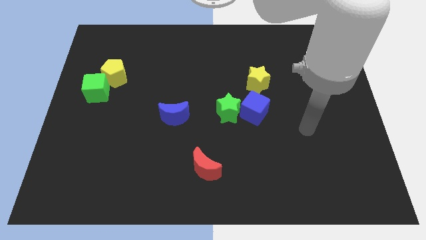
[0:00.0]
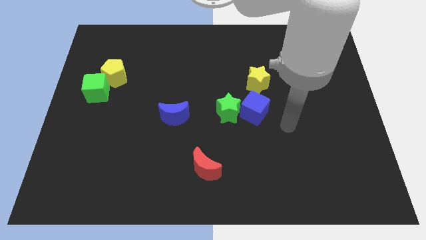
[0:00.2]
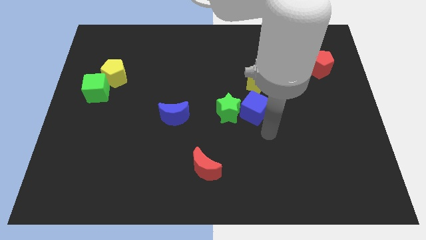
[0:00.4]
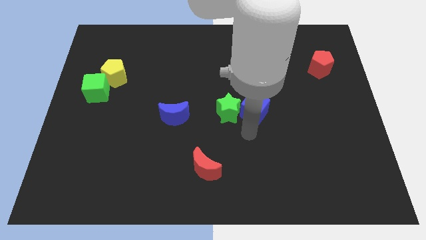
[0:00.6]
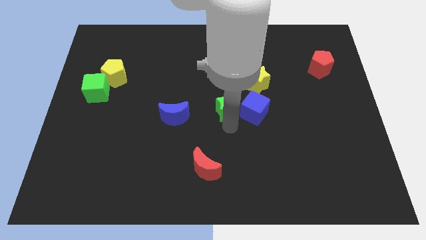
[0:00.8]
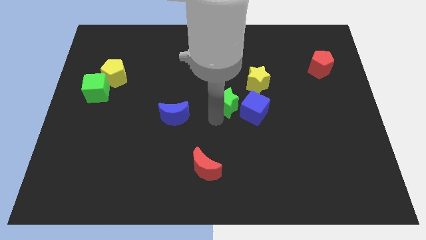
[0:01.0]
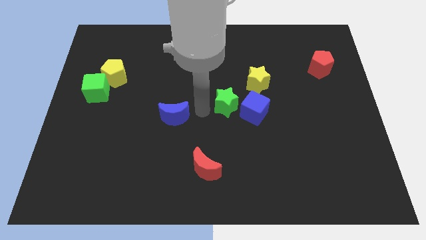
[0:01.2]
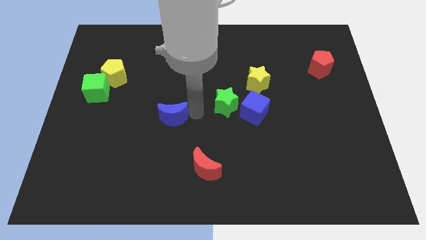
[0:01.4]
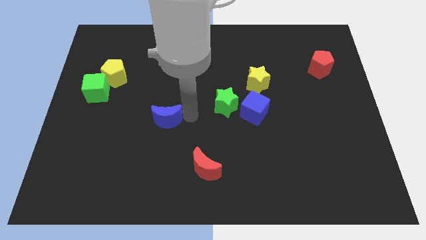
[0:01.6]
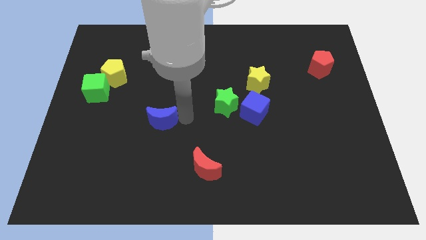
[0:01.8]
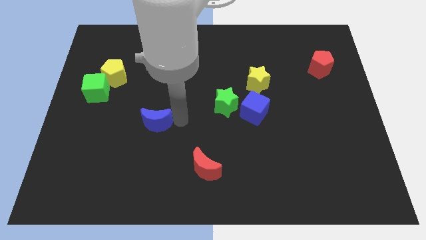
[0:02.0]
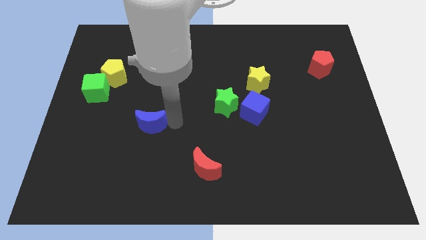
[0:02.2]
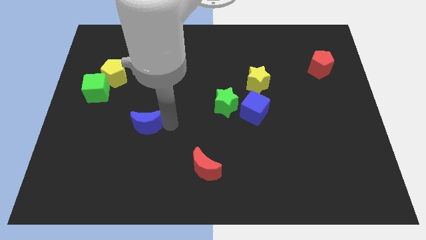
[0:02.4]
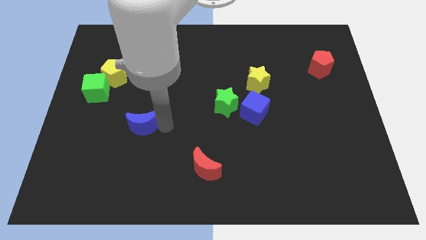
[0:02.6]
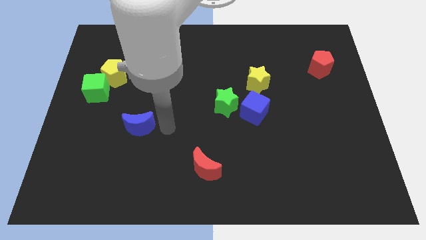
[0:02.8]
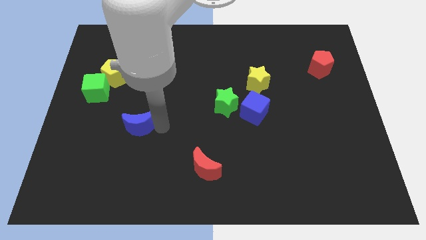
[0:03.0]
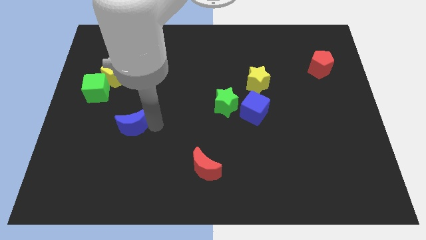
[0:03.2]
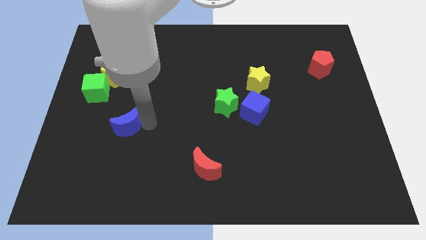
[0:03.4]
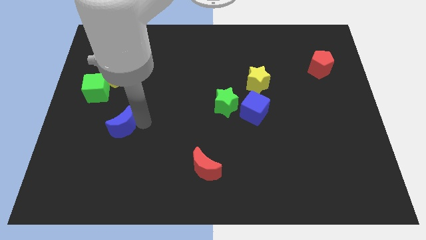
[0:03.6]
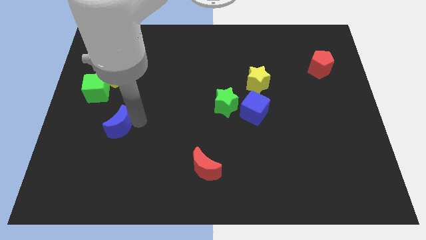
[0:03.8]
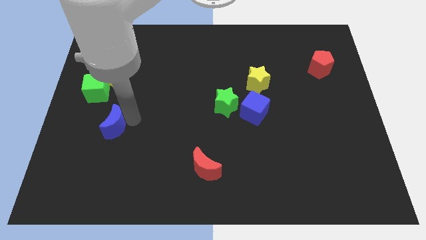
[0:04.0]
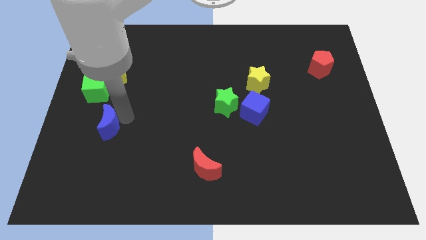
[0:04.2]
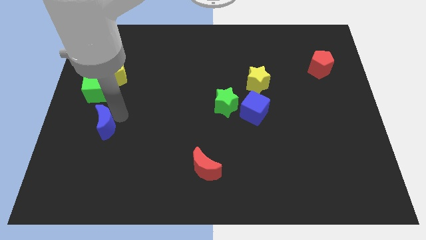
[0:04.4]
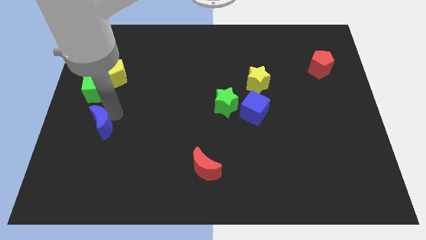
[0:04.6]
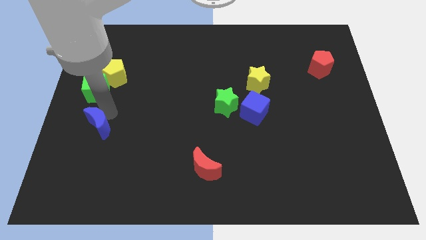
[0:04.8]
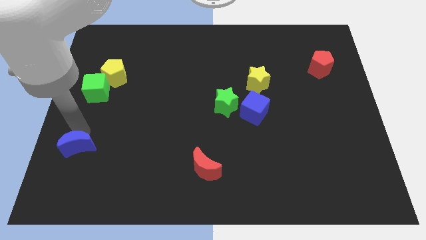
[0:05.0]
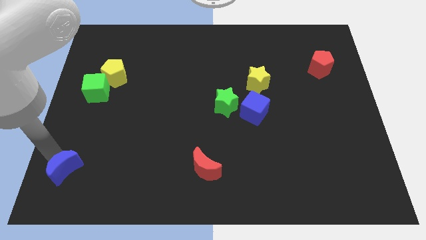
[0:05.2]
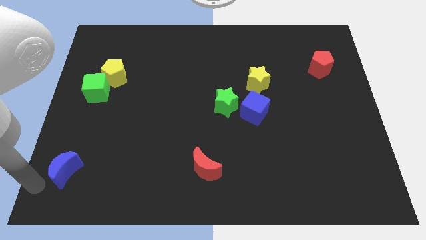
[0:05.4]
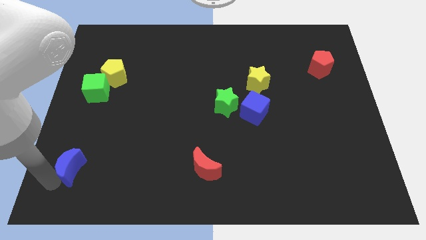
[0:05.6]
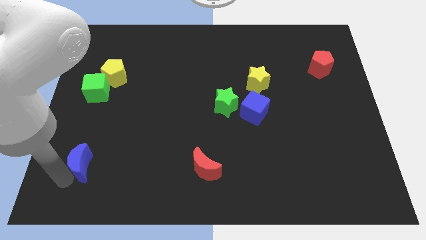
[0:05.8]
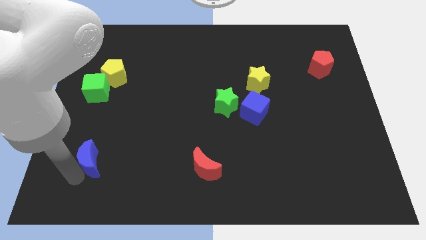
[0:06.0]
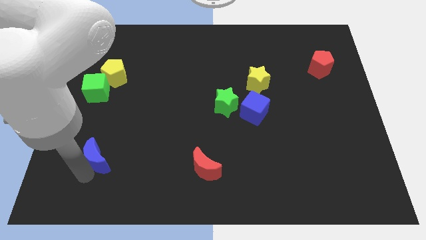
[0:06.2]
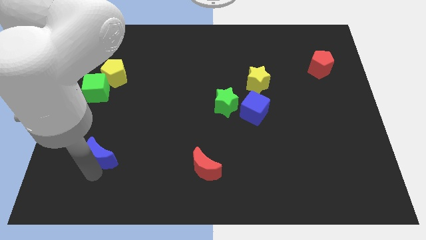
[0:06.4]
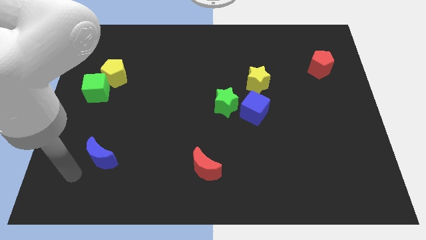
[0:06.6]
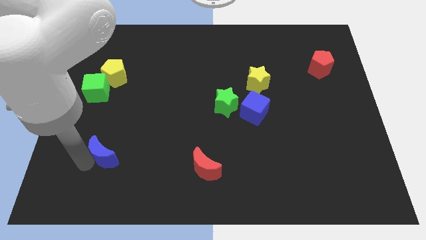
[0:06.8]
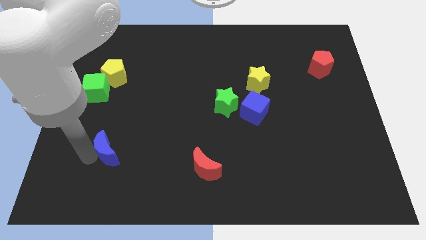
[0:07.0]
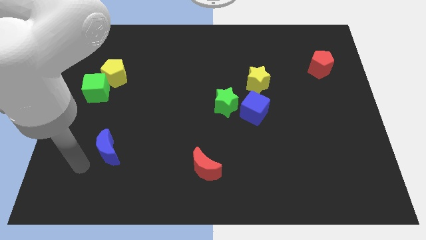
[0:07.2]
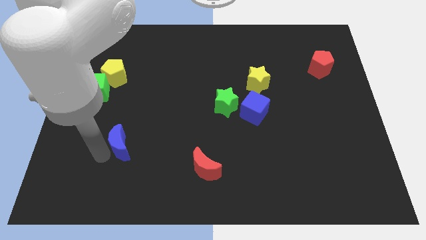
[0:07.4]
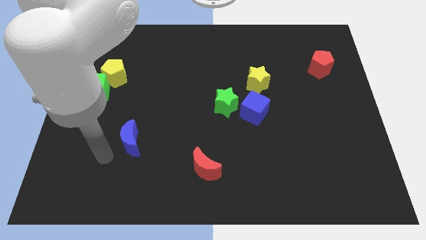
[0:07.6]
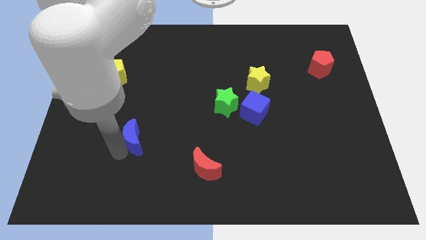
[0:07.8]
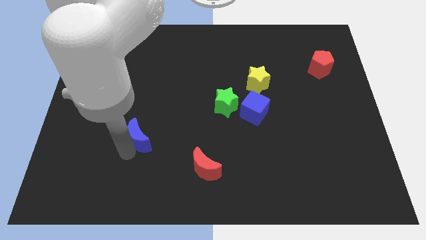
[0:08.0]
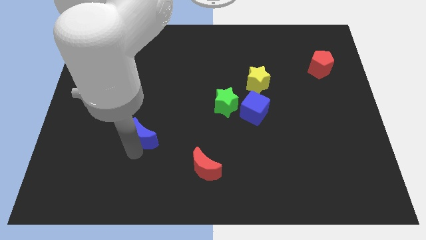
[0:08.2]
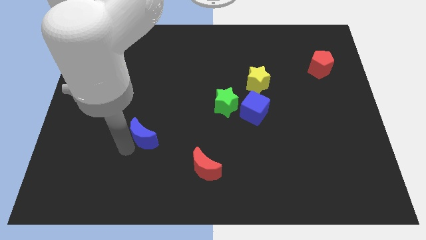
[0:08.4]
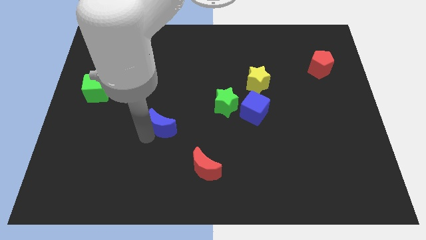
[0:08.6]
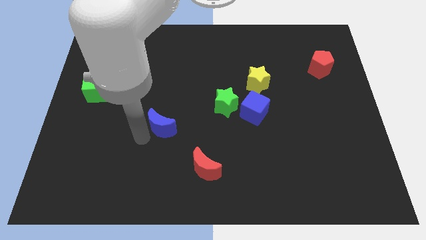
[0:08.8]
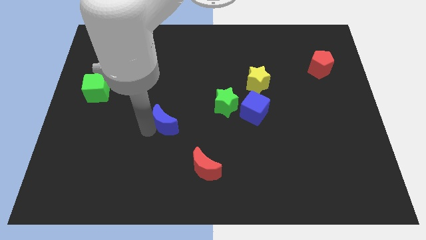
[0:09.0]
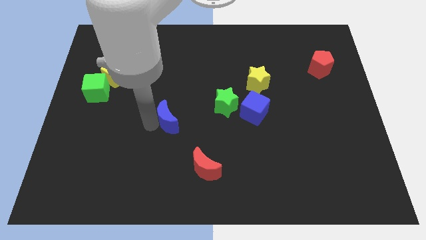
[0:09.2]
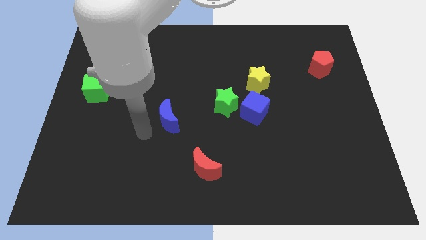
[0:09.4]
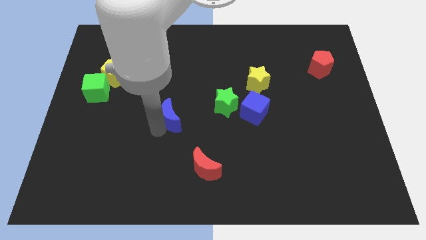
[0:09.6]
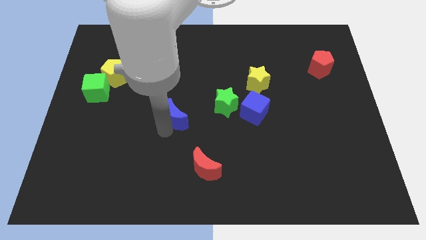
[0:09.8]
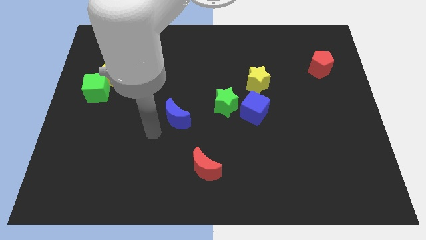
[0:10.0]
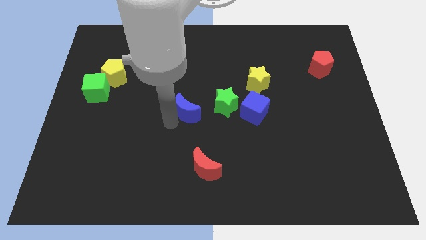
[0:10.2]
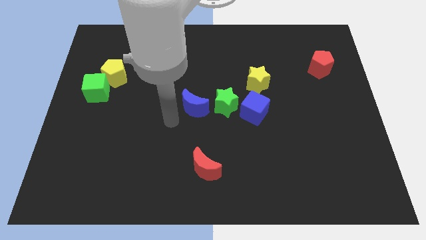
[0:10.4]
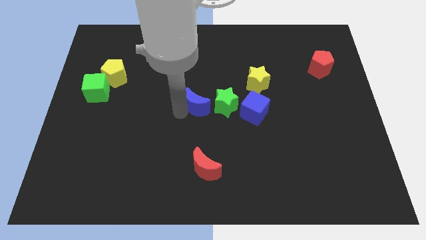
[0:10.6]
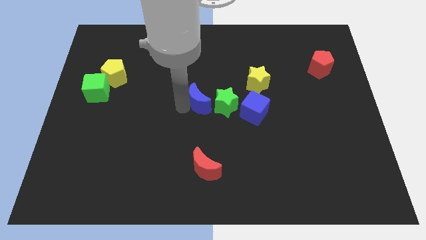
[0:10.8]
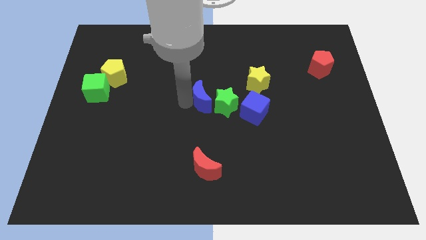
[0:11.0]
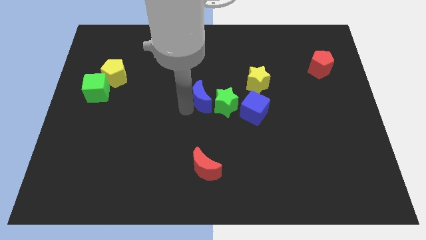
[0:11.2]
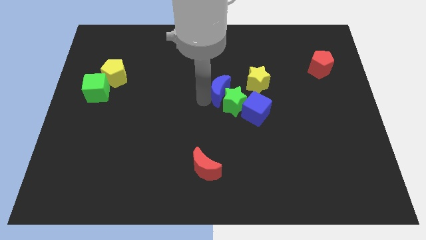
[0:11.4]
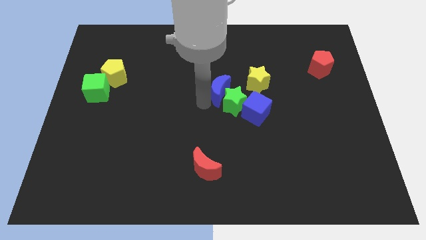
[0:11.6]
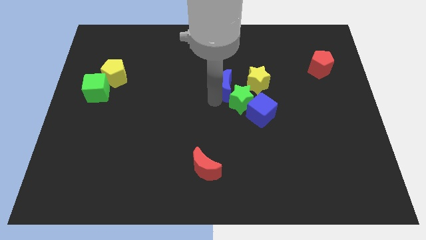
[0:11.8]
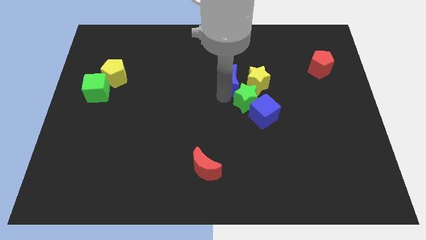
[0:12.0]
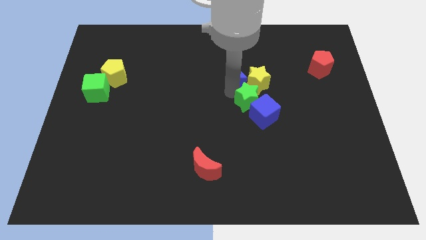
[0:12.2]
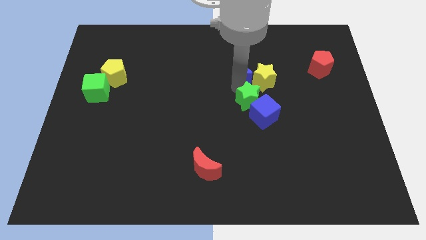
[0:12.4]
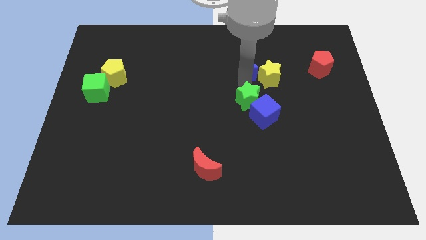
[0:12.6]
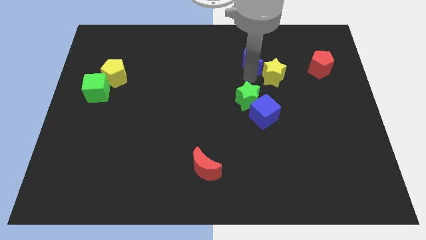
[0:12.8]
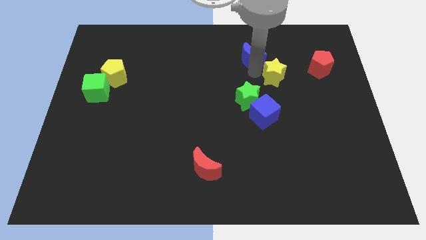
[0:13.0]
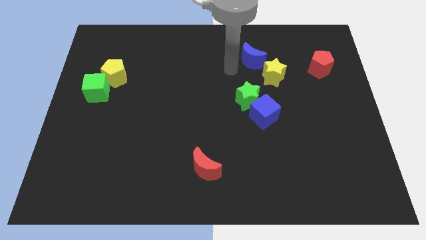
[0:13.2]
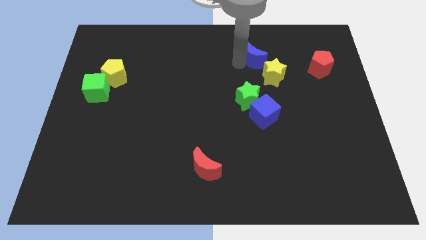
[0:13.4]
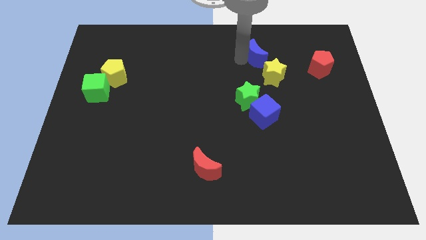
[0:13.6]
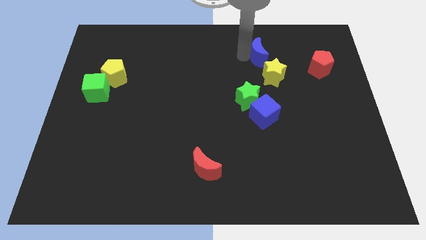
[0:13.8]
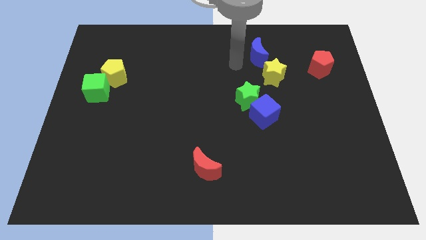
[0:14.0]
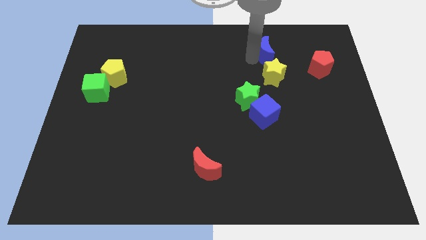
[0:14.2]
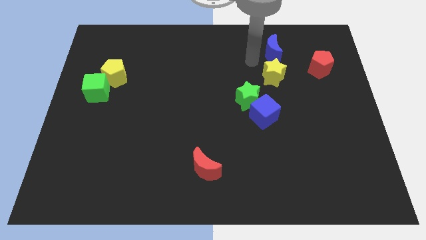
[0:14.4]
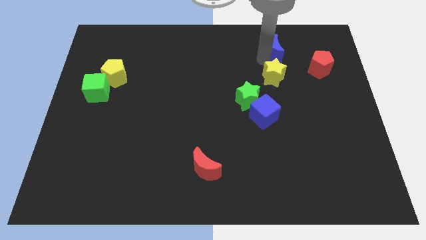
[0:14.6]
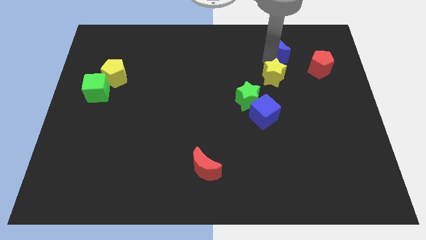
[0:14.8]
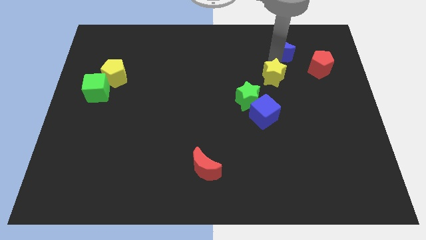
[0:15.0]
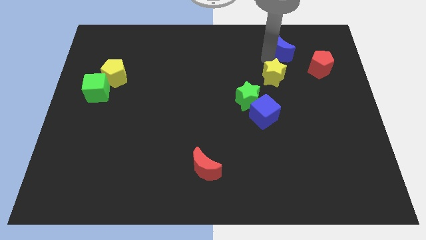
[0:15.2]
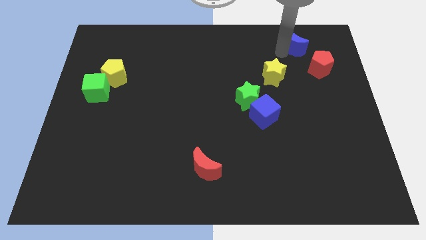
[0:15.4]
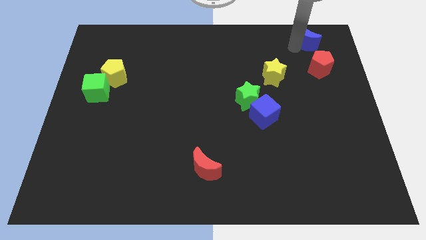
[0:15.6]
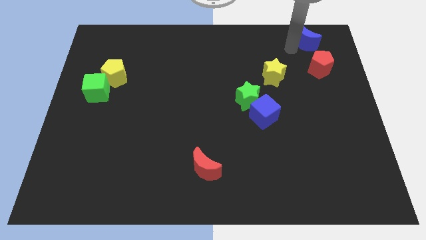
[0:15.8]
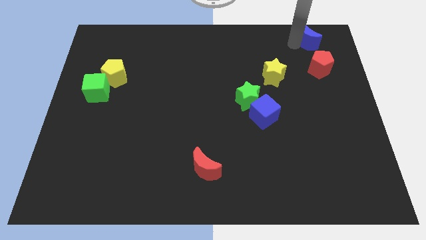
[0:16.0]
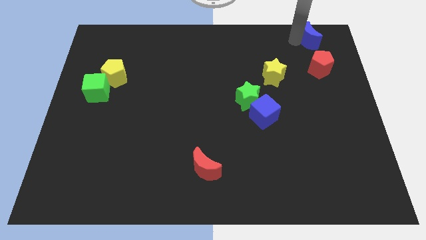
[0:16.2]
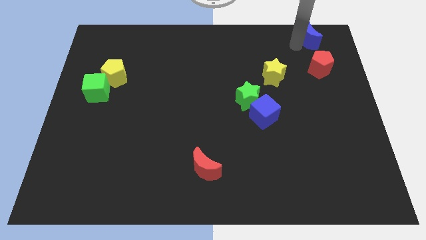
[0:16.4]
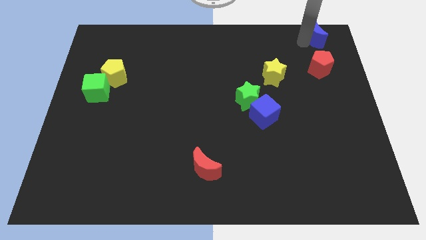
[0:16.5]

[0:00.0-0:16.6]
put the blue moon to the top right
